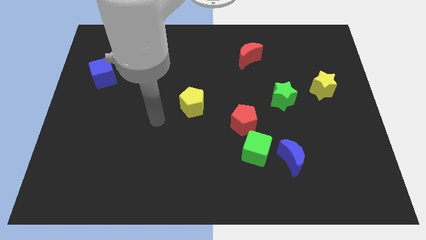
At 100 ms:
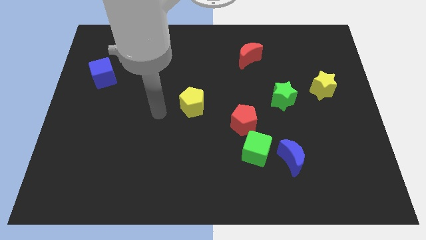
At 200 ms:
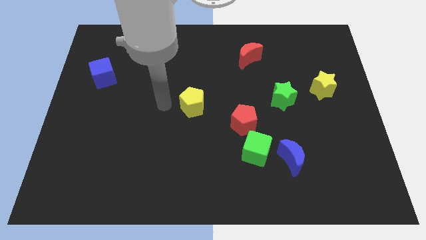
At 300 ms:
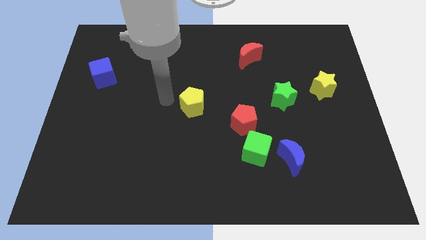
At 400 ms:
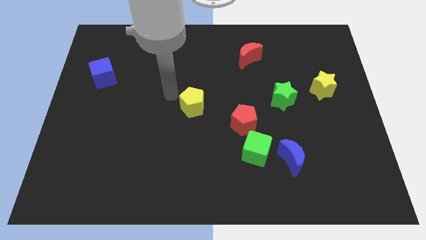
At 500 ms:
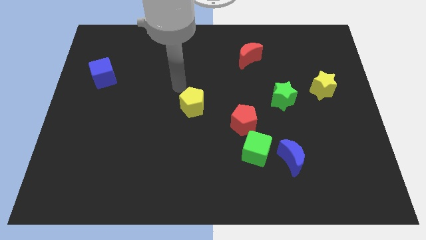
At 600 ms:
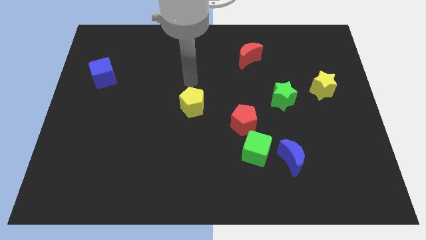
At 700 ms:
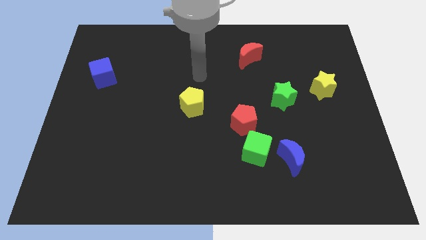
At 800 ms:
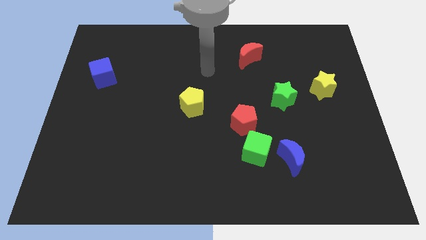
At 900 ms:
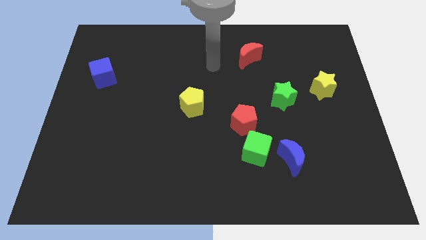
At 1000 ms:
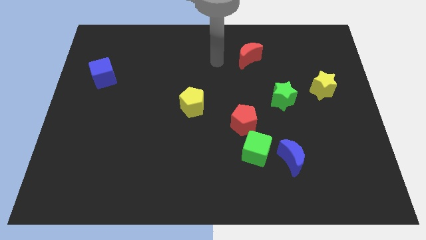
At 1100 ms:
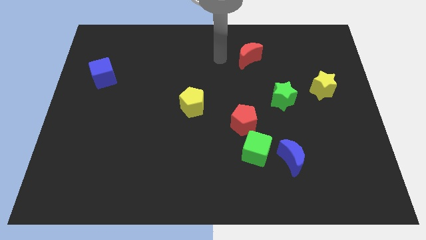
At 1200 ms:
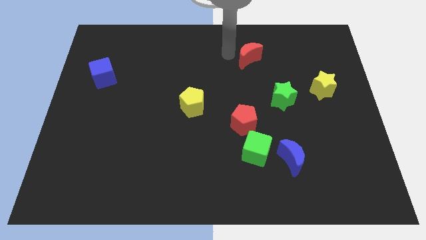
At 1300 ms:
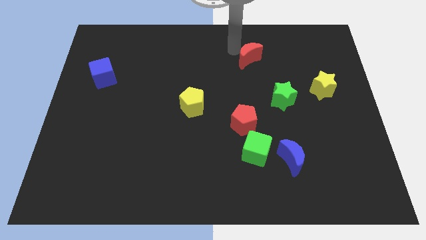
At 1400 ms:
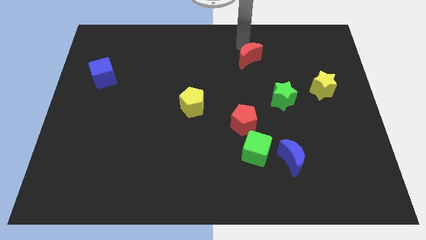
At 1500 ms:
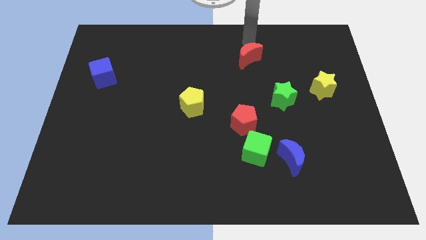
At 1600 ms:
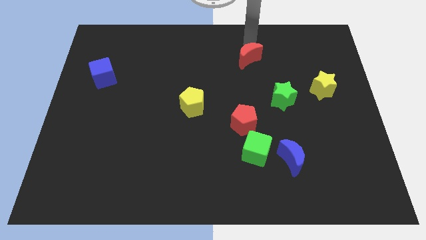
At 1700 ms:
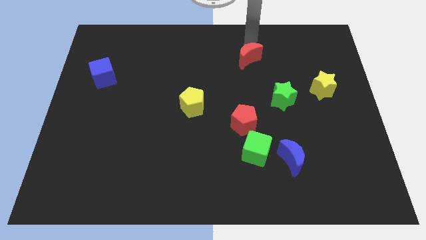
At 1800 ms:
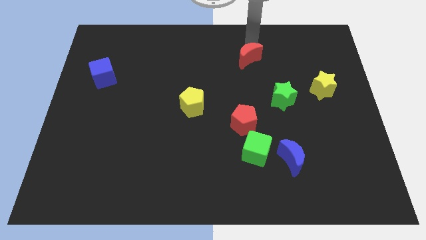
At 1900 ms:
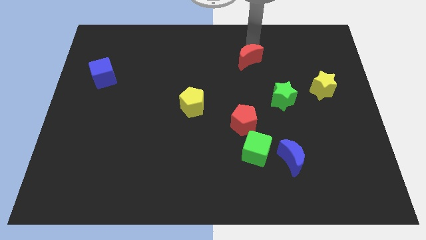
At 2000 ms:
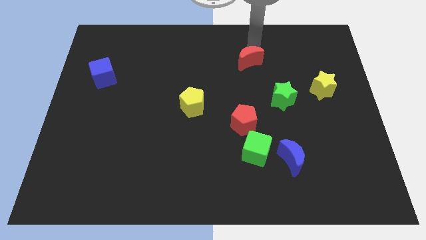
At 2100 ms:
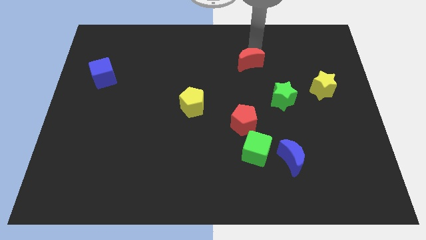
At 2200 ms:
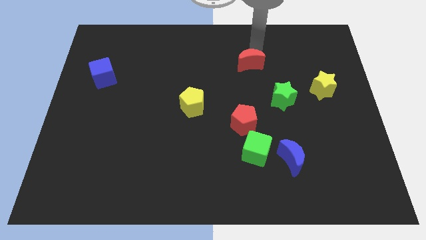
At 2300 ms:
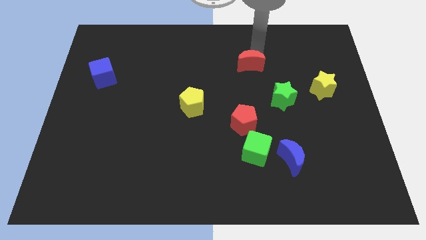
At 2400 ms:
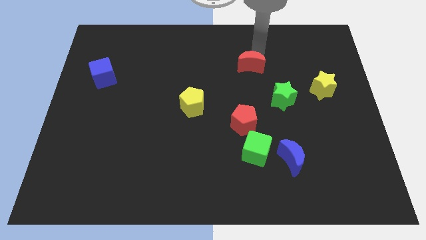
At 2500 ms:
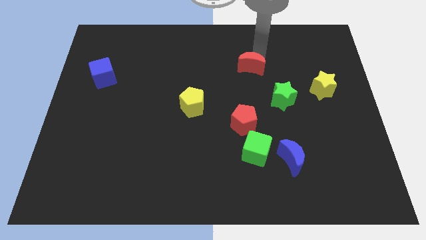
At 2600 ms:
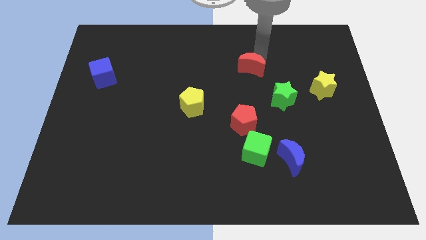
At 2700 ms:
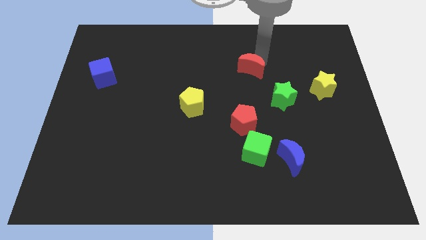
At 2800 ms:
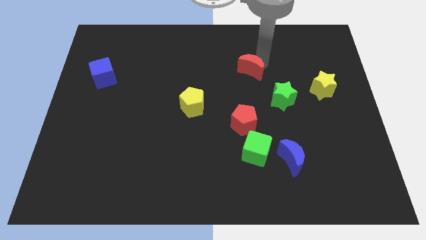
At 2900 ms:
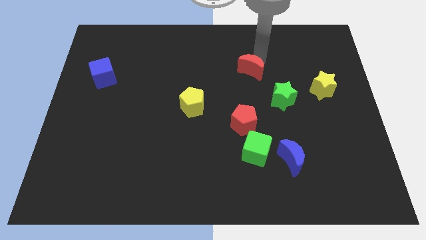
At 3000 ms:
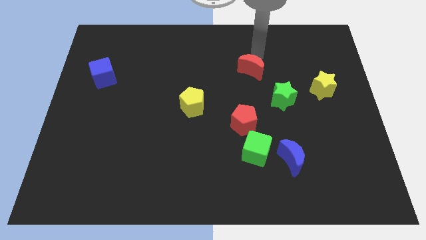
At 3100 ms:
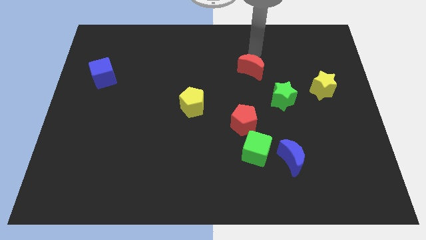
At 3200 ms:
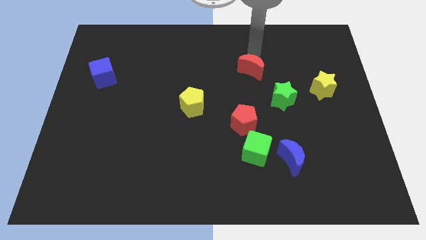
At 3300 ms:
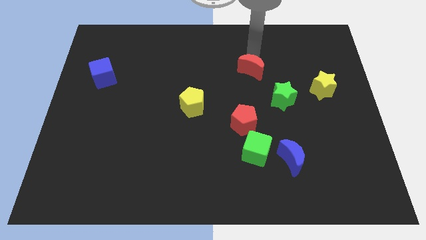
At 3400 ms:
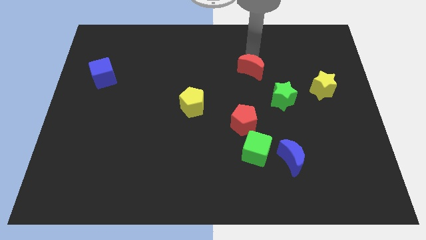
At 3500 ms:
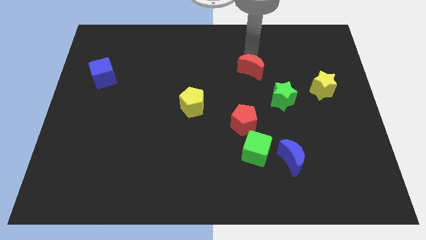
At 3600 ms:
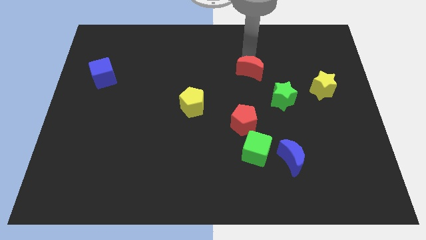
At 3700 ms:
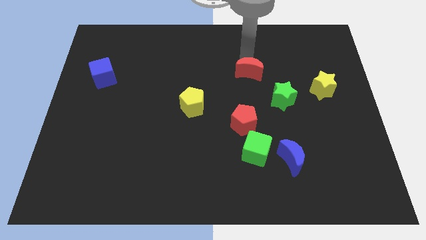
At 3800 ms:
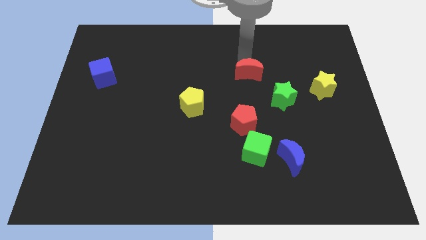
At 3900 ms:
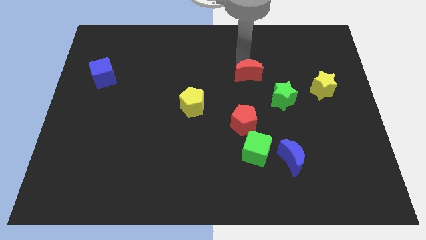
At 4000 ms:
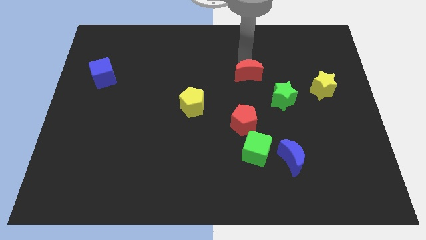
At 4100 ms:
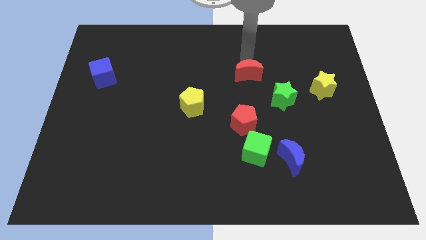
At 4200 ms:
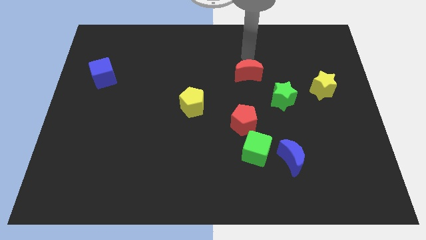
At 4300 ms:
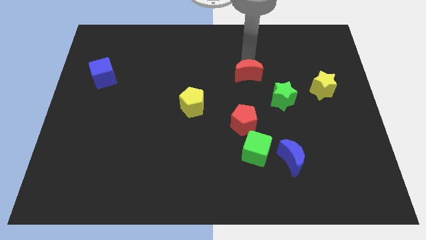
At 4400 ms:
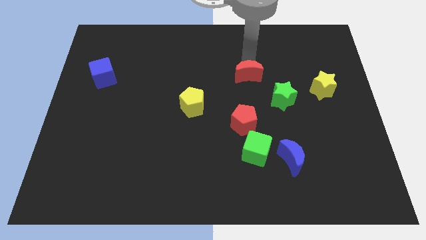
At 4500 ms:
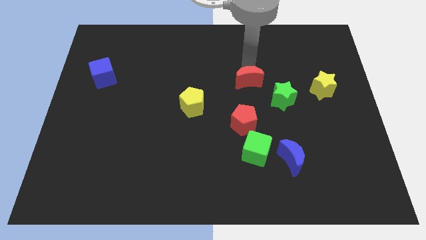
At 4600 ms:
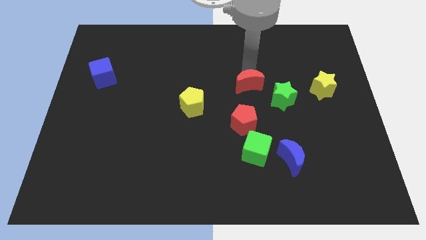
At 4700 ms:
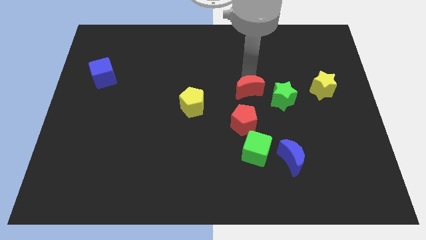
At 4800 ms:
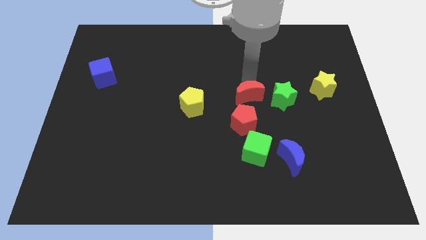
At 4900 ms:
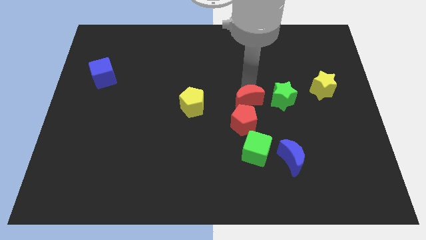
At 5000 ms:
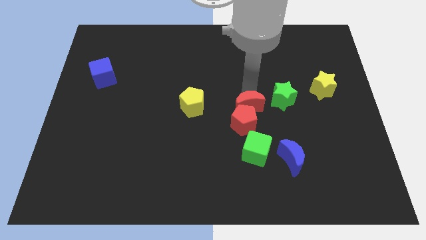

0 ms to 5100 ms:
move the red moon next to the red pentagon

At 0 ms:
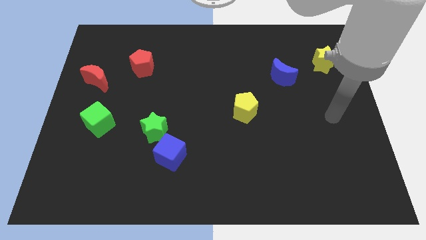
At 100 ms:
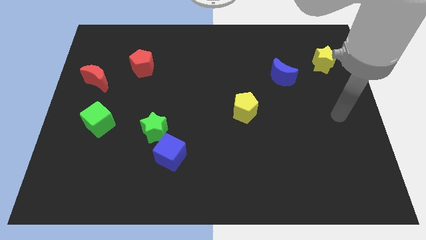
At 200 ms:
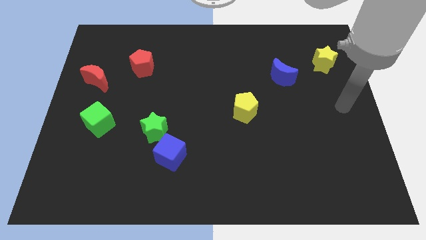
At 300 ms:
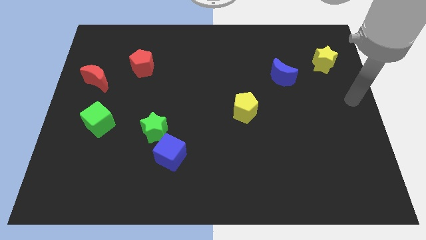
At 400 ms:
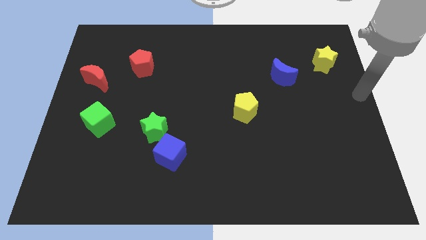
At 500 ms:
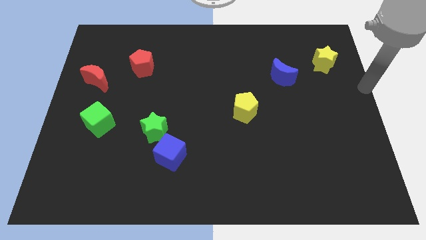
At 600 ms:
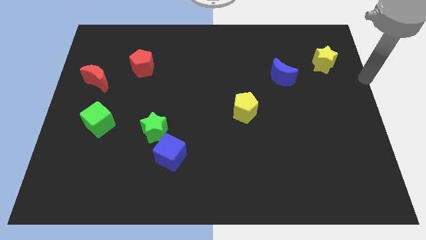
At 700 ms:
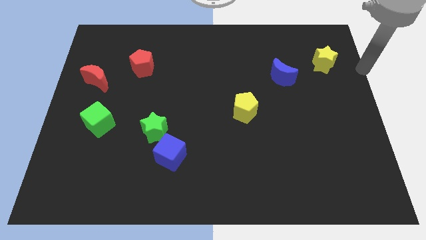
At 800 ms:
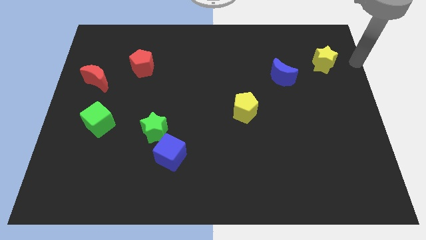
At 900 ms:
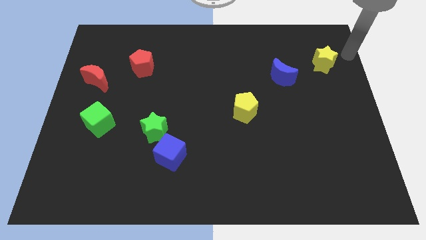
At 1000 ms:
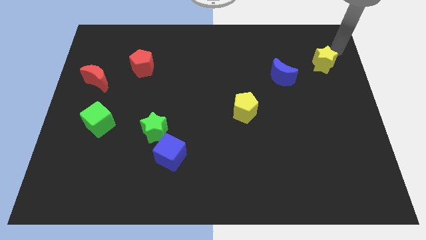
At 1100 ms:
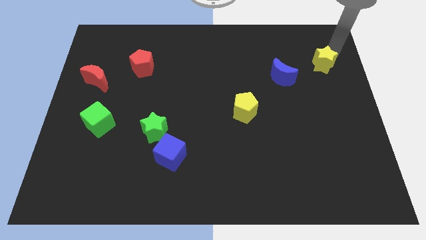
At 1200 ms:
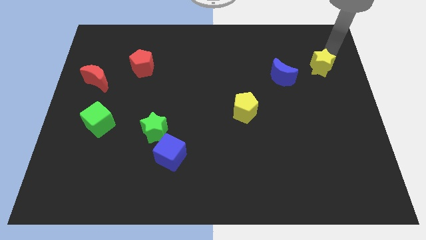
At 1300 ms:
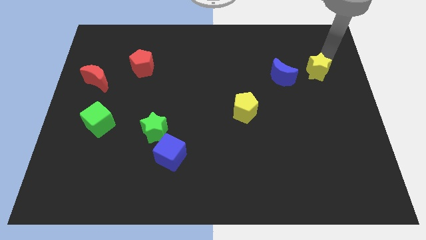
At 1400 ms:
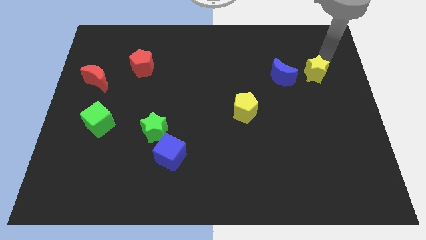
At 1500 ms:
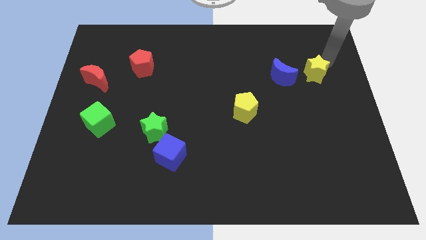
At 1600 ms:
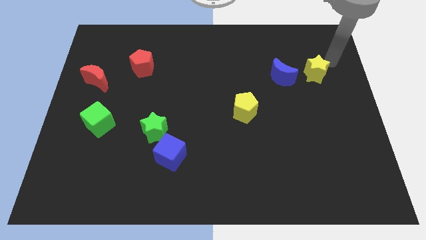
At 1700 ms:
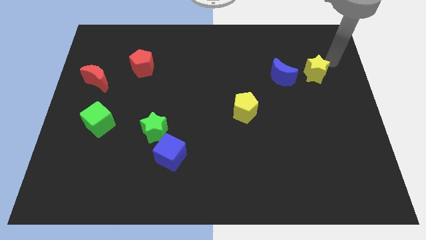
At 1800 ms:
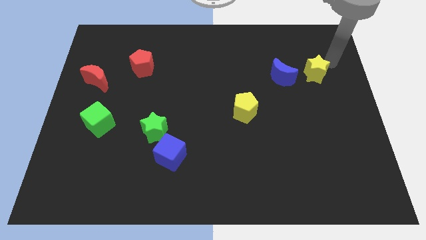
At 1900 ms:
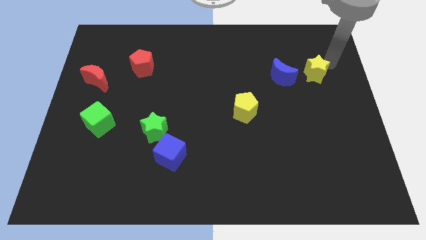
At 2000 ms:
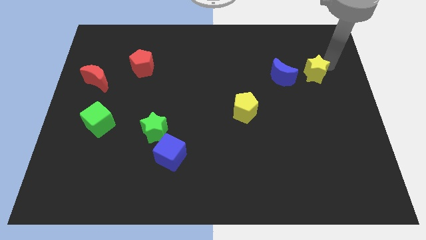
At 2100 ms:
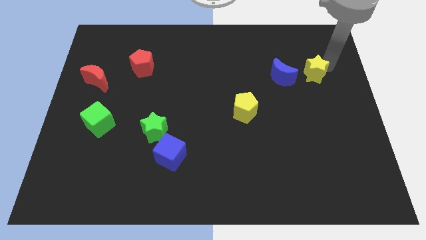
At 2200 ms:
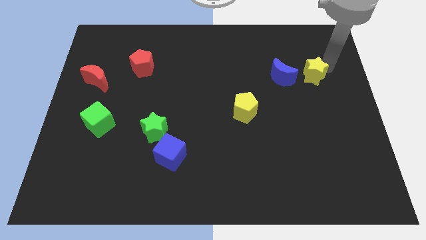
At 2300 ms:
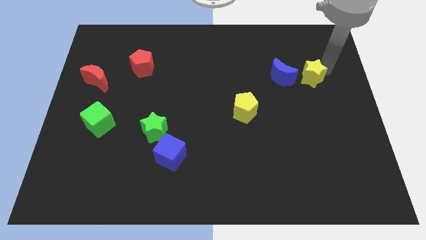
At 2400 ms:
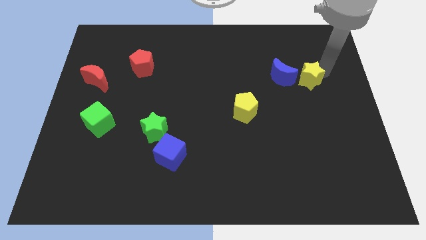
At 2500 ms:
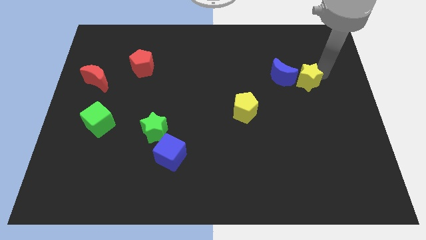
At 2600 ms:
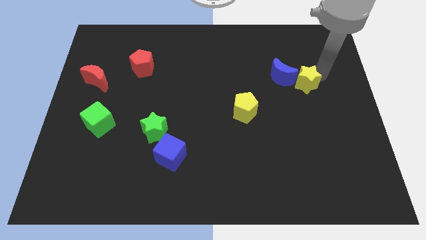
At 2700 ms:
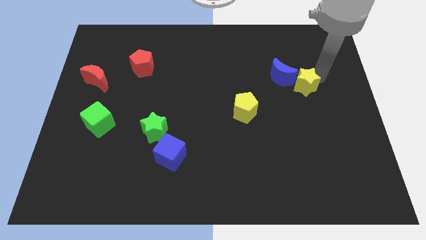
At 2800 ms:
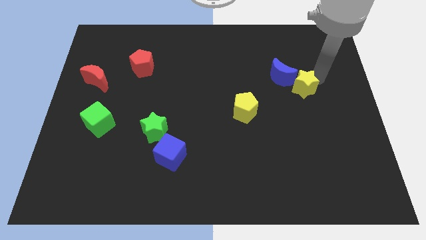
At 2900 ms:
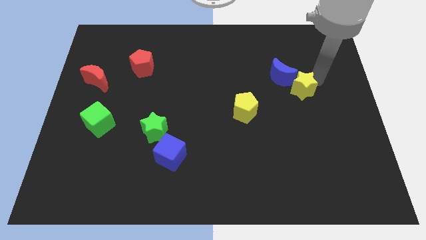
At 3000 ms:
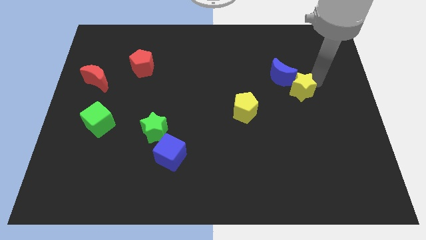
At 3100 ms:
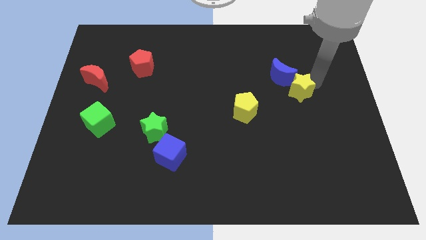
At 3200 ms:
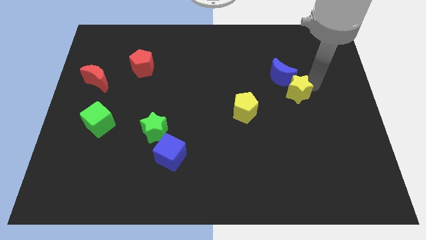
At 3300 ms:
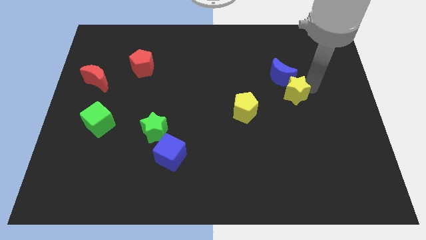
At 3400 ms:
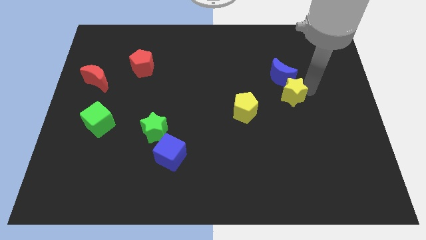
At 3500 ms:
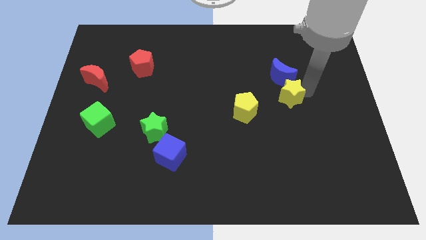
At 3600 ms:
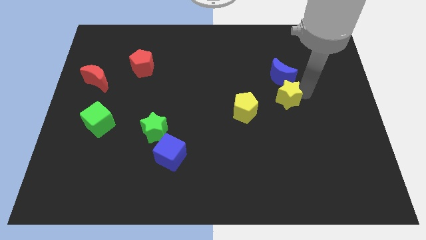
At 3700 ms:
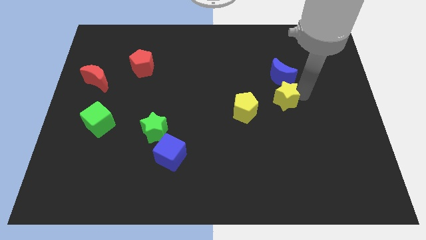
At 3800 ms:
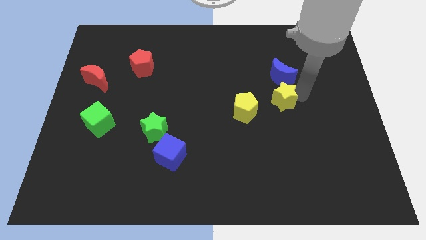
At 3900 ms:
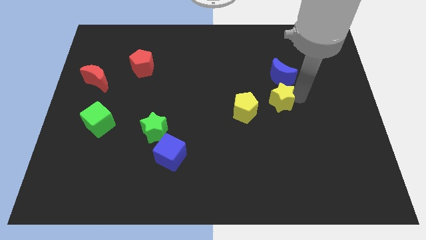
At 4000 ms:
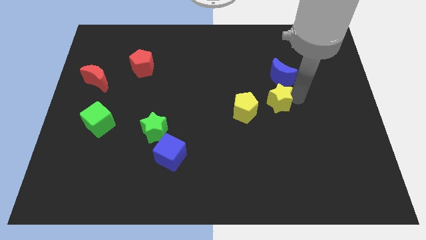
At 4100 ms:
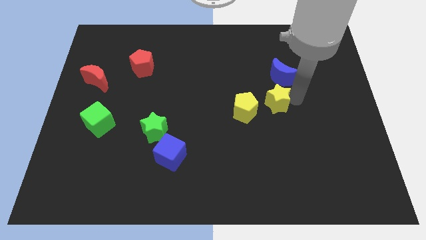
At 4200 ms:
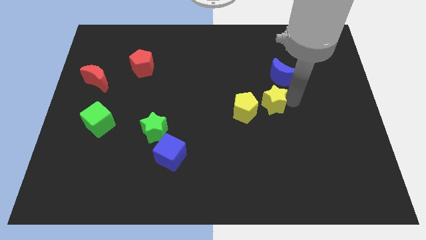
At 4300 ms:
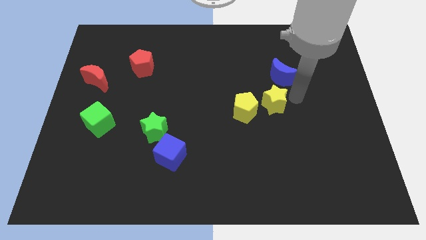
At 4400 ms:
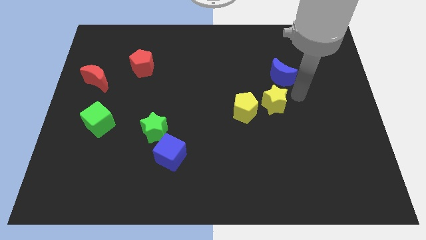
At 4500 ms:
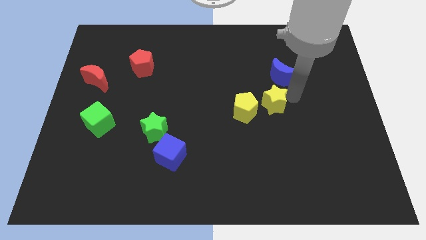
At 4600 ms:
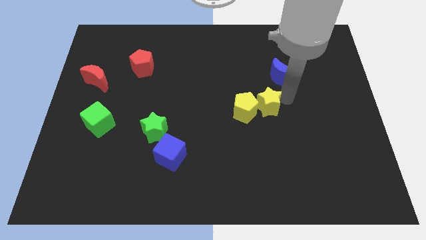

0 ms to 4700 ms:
slide the yellow star close to the yellow pentagon
